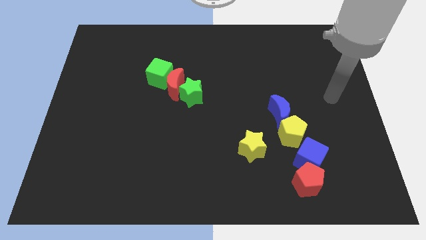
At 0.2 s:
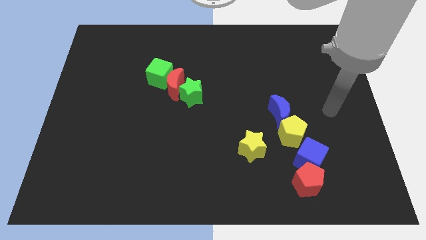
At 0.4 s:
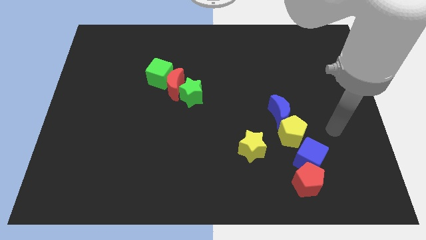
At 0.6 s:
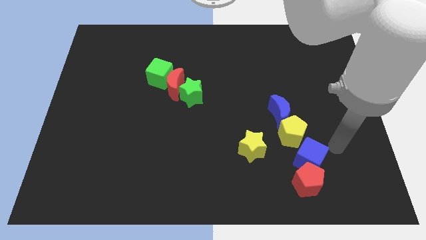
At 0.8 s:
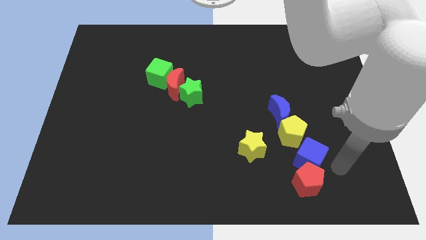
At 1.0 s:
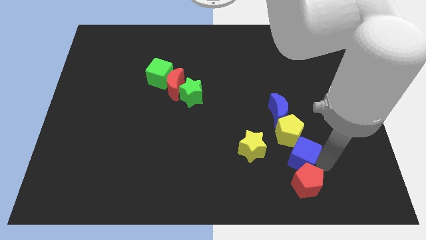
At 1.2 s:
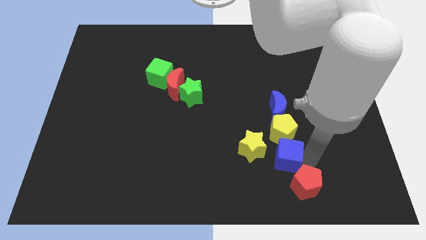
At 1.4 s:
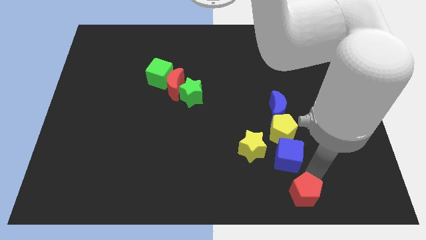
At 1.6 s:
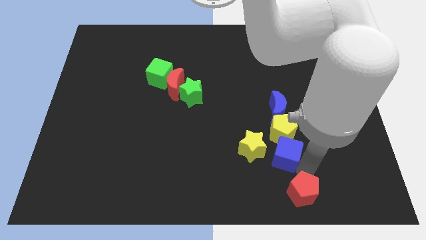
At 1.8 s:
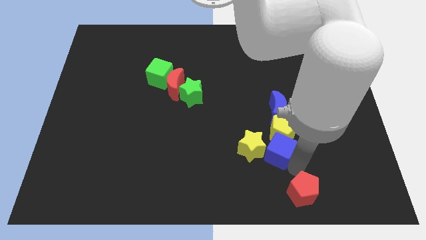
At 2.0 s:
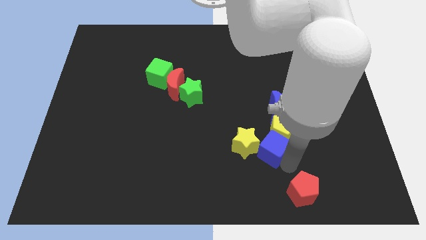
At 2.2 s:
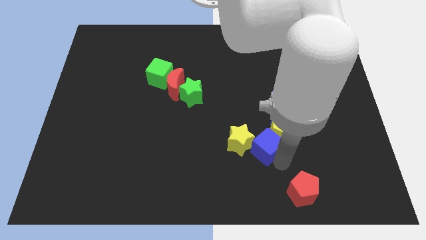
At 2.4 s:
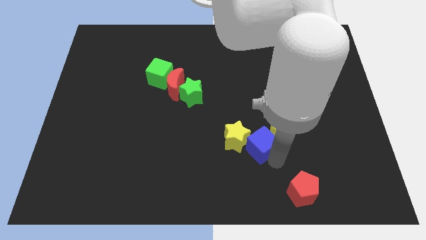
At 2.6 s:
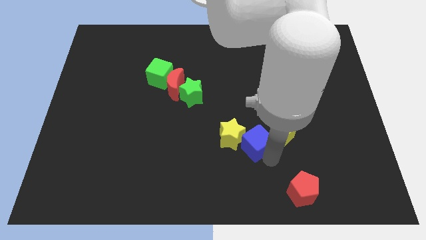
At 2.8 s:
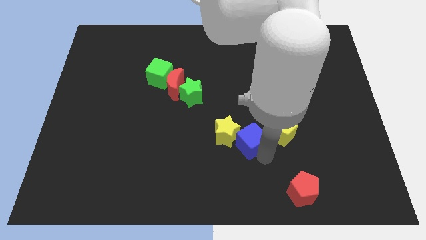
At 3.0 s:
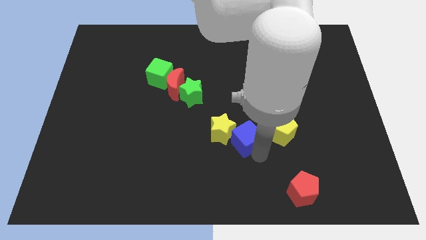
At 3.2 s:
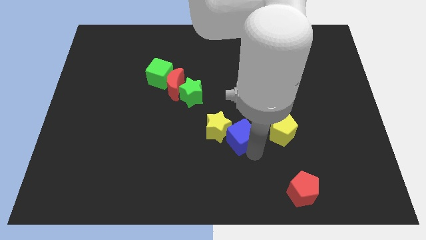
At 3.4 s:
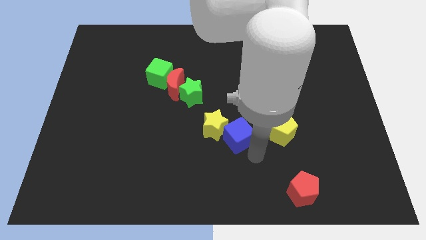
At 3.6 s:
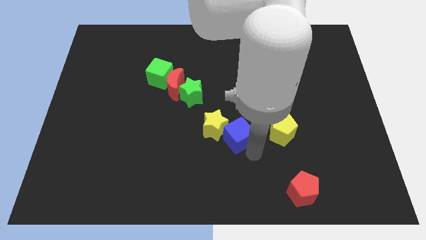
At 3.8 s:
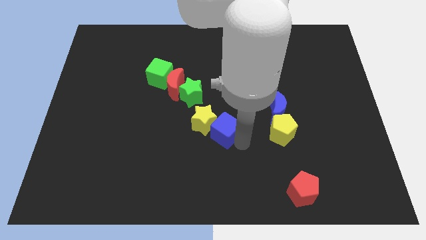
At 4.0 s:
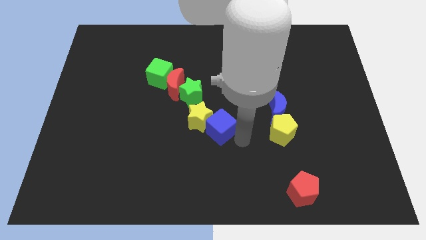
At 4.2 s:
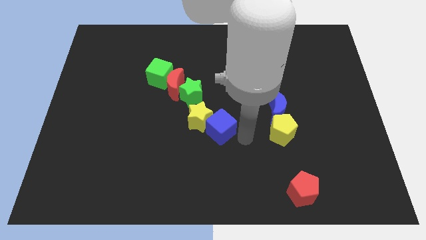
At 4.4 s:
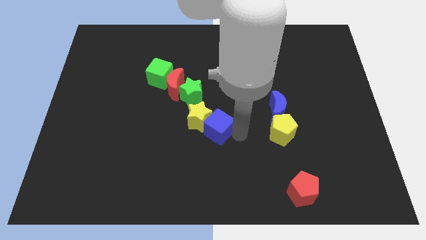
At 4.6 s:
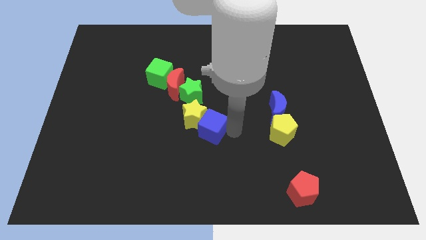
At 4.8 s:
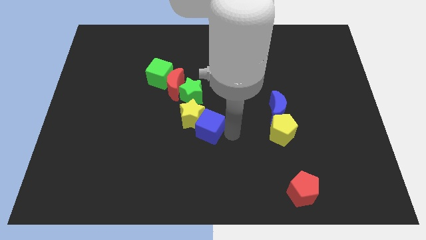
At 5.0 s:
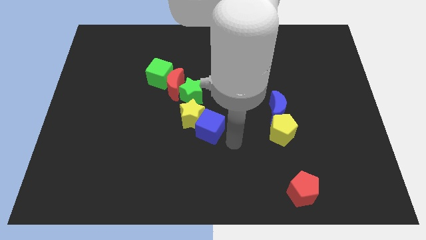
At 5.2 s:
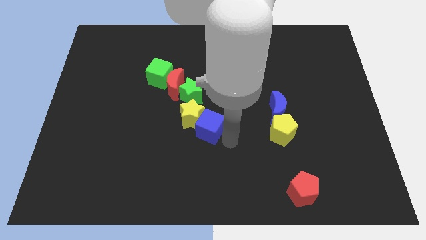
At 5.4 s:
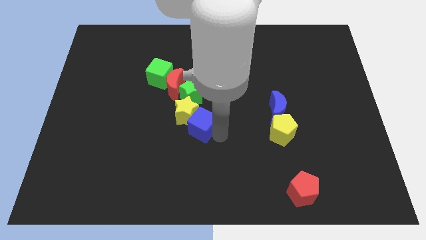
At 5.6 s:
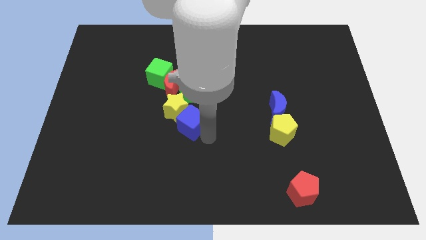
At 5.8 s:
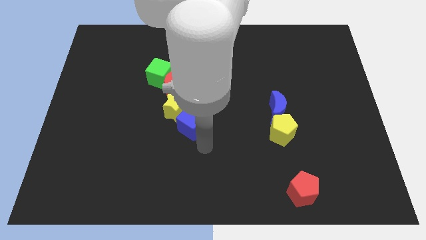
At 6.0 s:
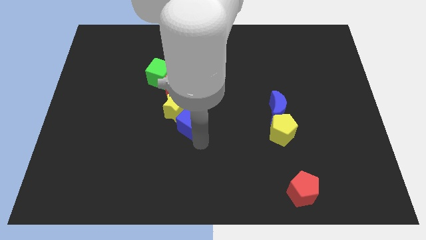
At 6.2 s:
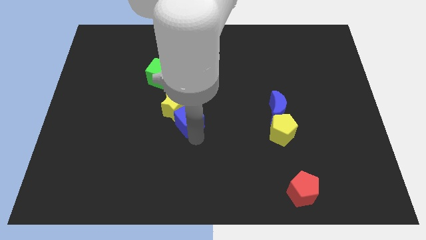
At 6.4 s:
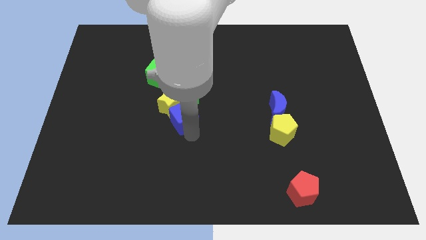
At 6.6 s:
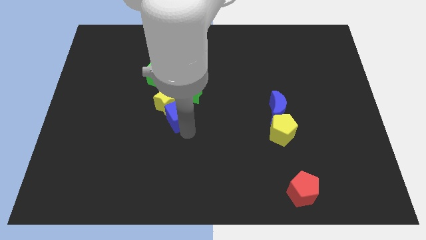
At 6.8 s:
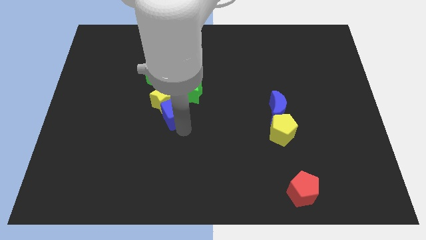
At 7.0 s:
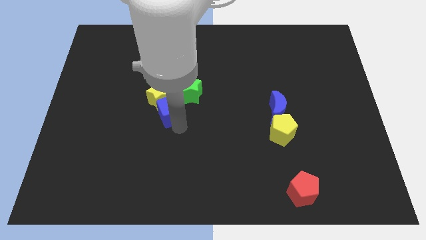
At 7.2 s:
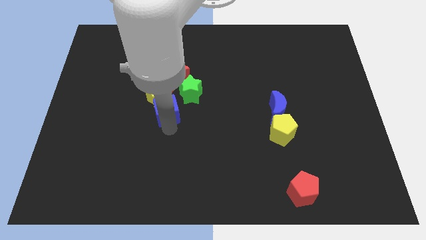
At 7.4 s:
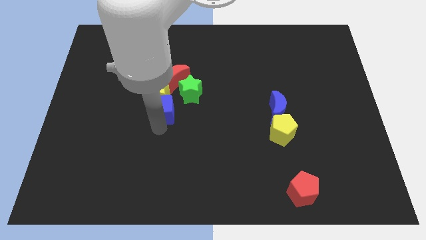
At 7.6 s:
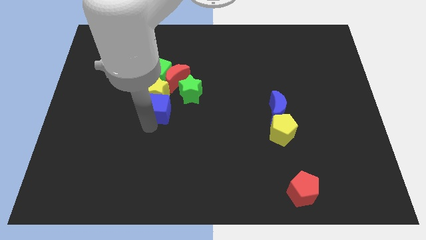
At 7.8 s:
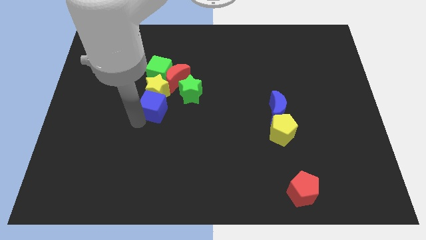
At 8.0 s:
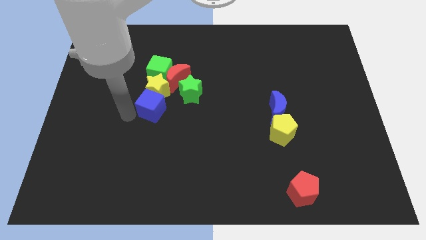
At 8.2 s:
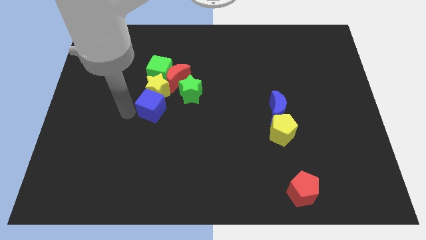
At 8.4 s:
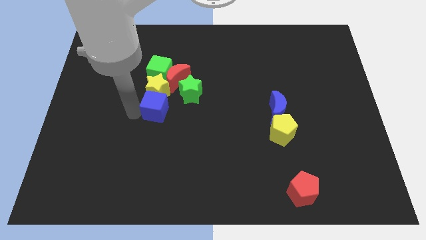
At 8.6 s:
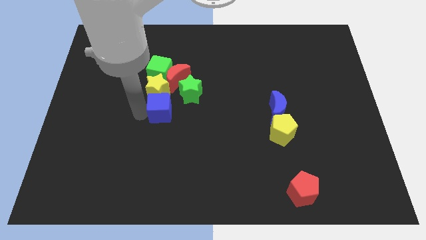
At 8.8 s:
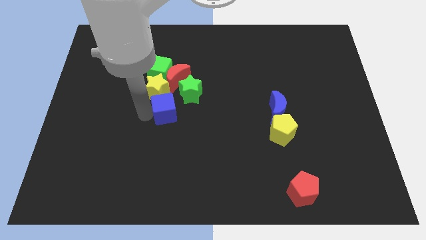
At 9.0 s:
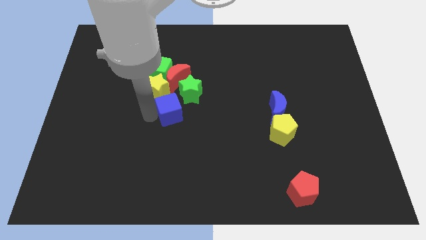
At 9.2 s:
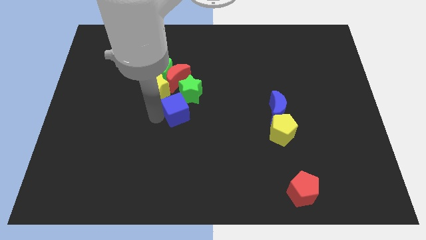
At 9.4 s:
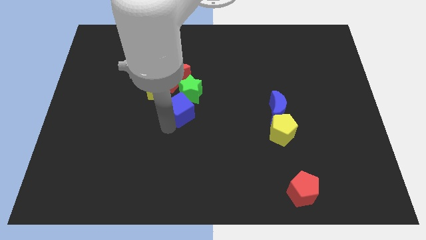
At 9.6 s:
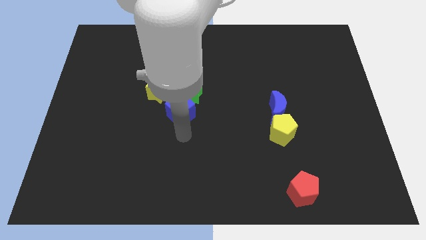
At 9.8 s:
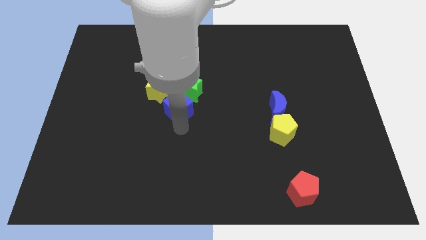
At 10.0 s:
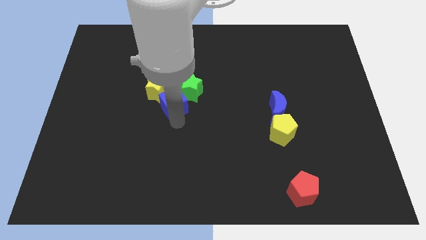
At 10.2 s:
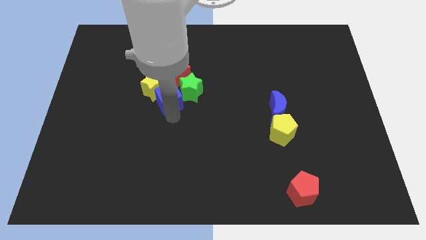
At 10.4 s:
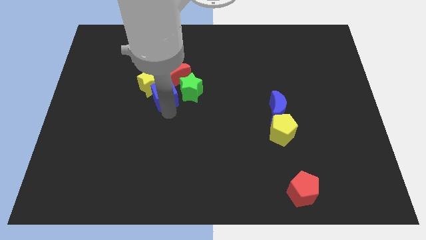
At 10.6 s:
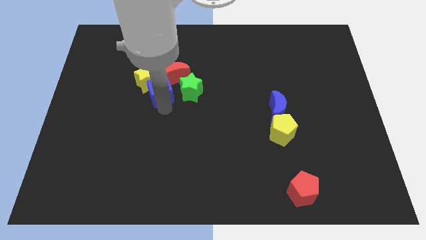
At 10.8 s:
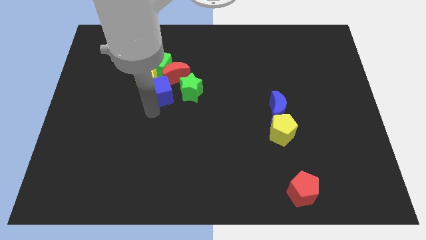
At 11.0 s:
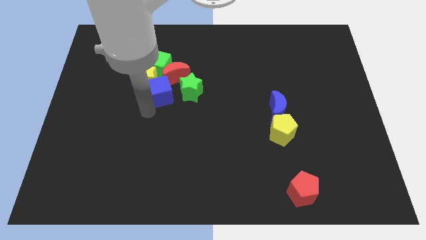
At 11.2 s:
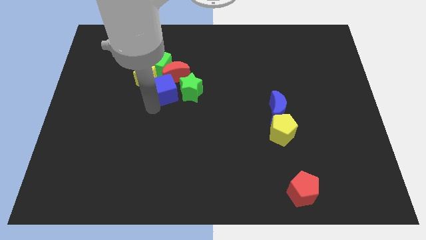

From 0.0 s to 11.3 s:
push the blue cube close to the red moon

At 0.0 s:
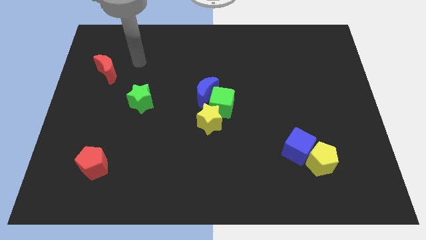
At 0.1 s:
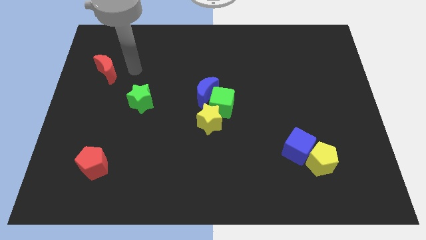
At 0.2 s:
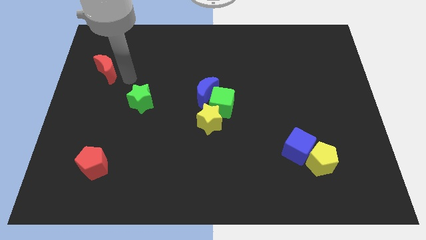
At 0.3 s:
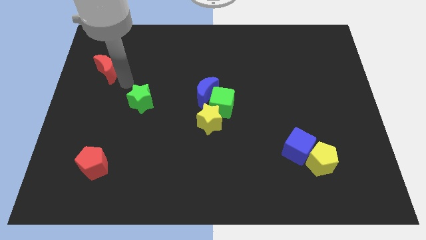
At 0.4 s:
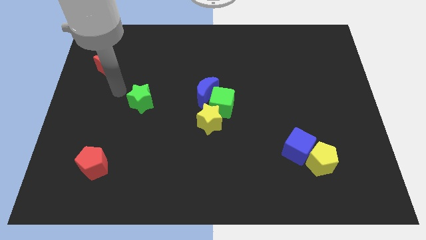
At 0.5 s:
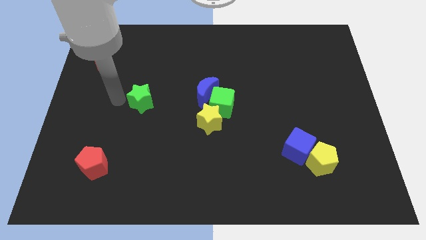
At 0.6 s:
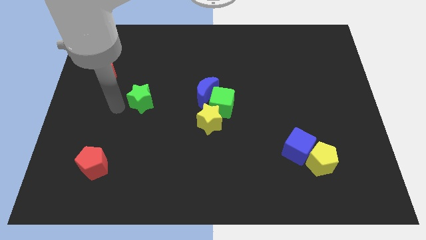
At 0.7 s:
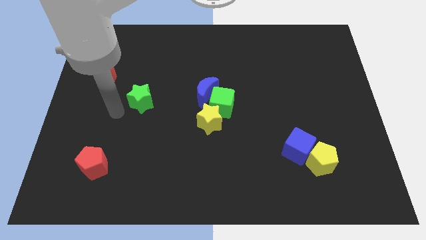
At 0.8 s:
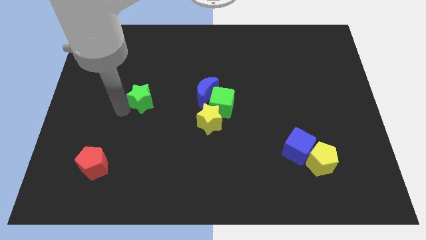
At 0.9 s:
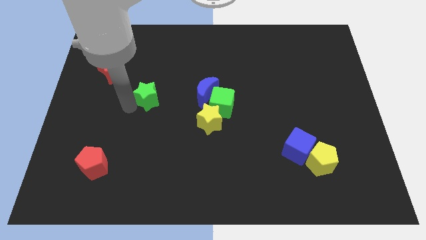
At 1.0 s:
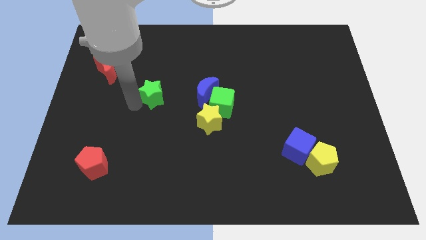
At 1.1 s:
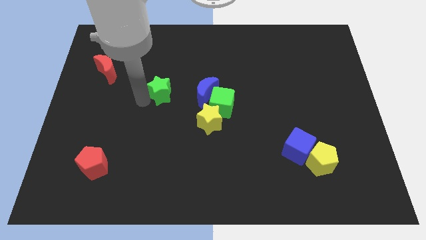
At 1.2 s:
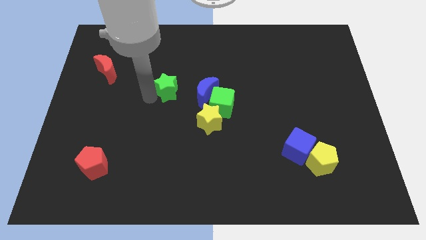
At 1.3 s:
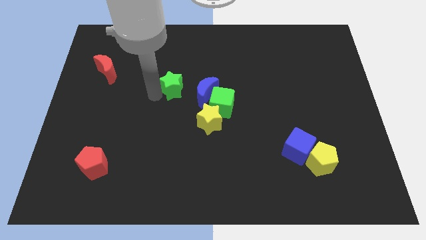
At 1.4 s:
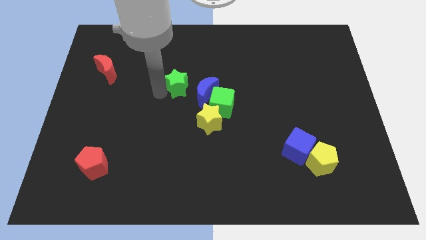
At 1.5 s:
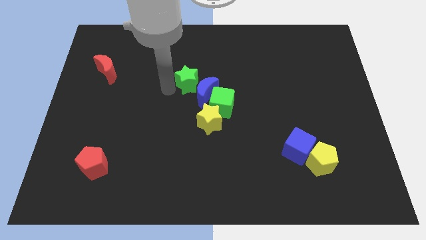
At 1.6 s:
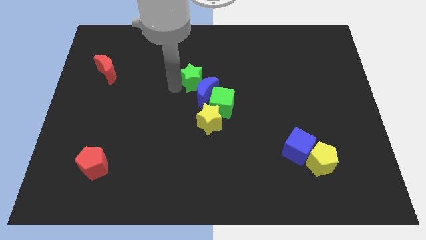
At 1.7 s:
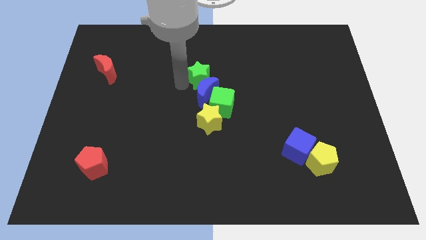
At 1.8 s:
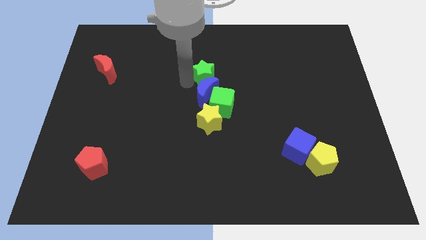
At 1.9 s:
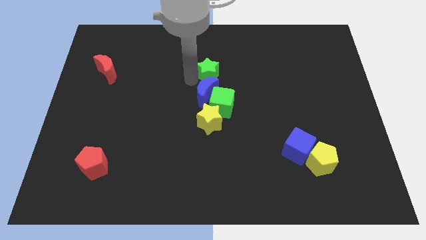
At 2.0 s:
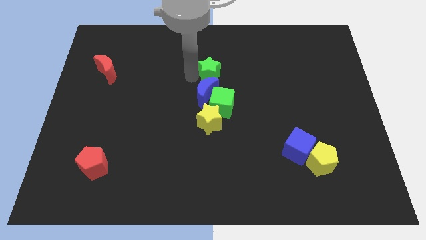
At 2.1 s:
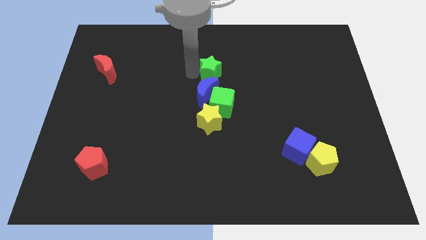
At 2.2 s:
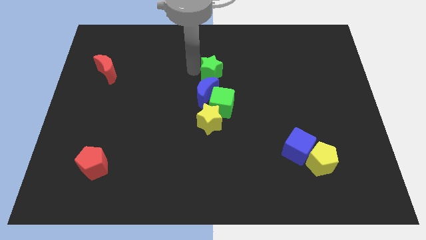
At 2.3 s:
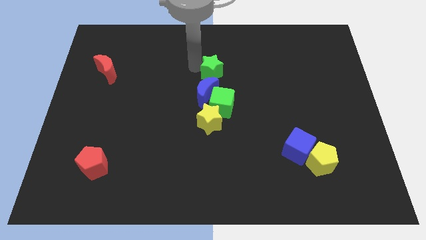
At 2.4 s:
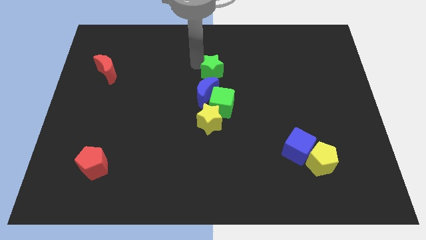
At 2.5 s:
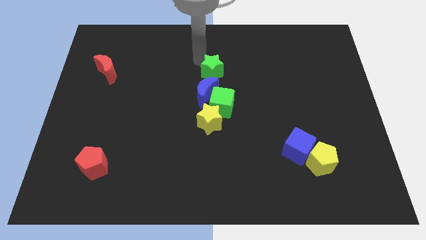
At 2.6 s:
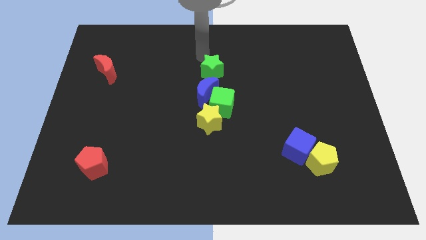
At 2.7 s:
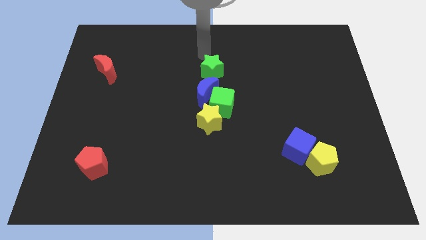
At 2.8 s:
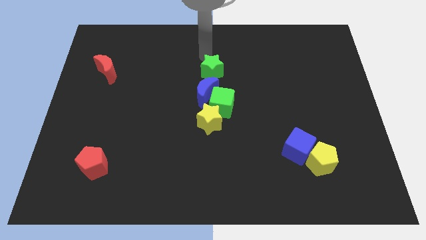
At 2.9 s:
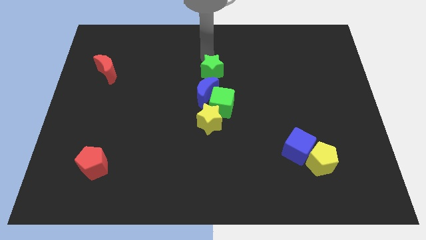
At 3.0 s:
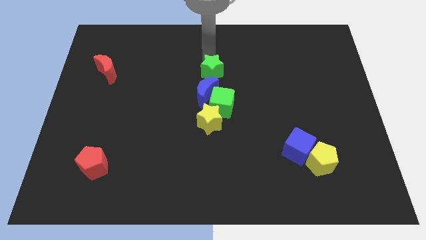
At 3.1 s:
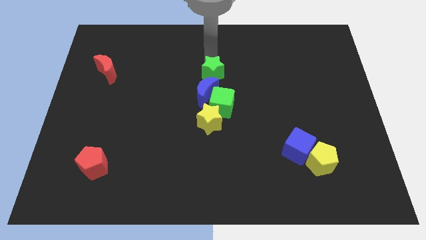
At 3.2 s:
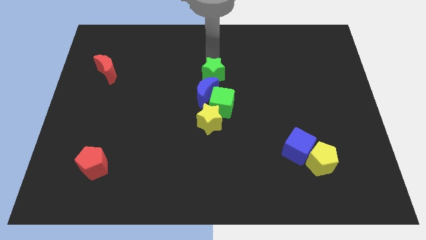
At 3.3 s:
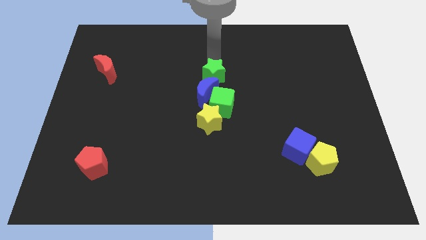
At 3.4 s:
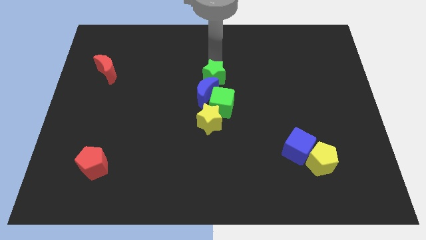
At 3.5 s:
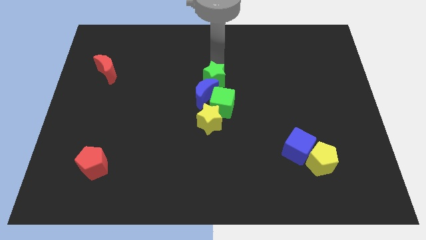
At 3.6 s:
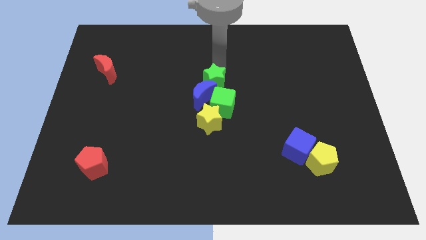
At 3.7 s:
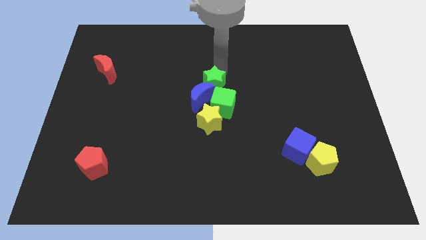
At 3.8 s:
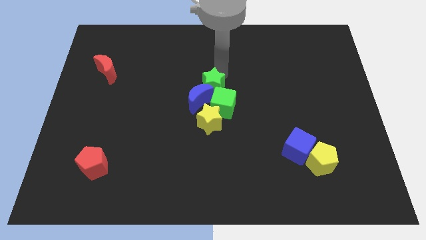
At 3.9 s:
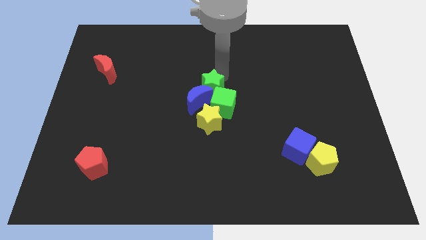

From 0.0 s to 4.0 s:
push the green star towards the green cube
